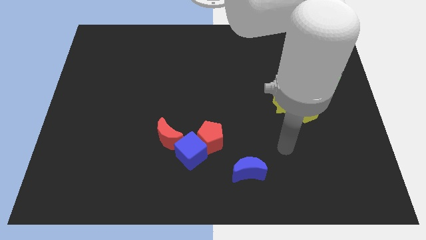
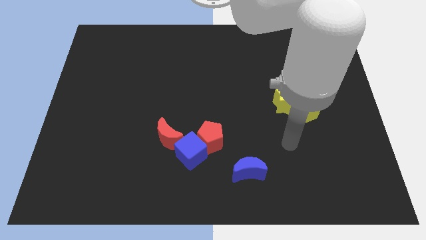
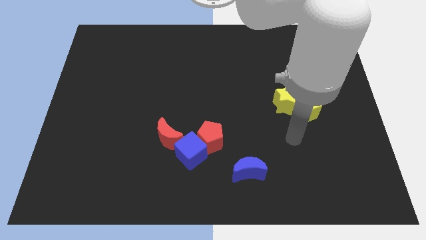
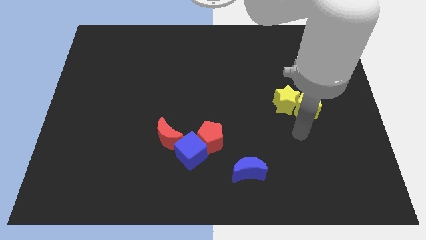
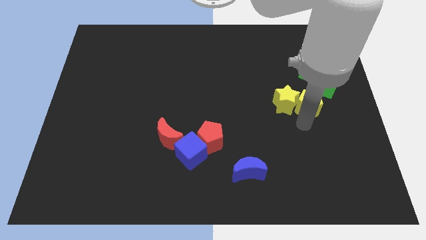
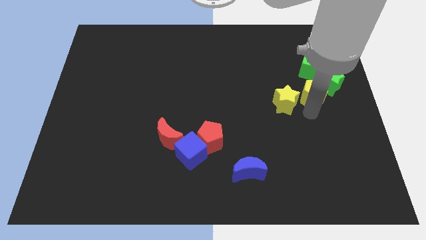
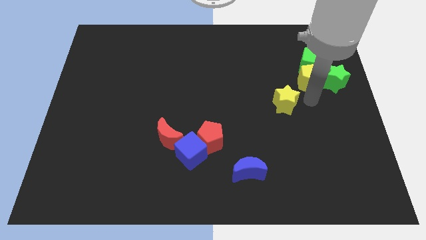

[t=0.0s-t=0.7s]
separate the yellow star from the yellow pentagon

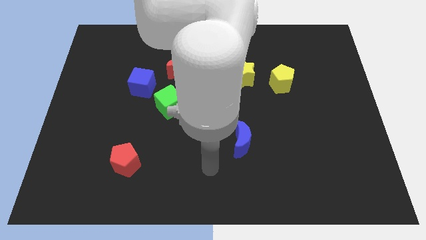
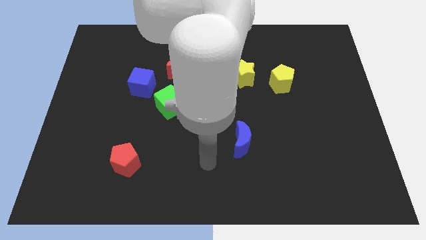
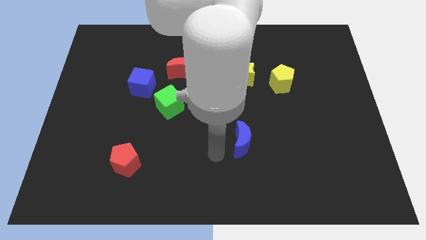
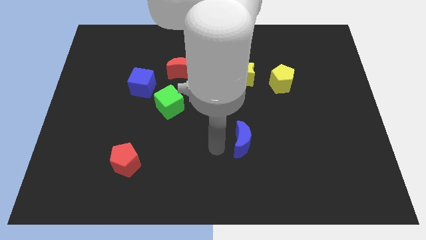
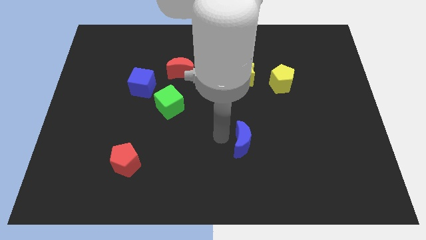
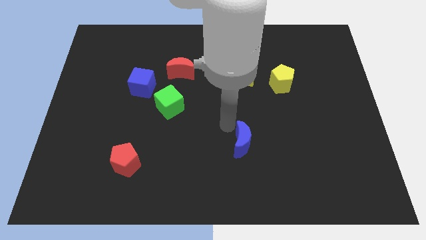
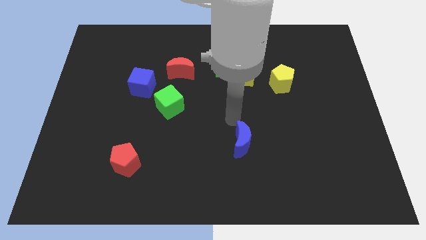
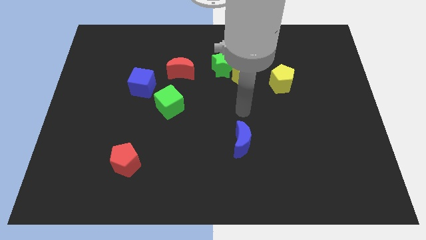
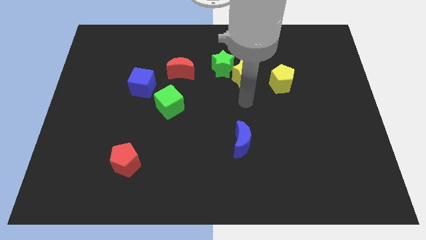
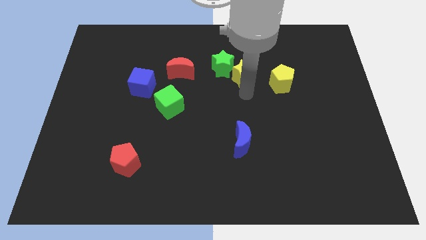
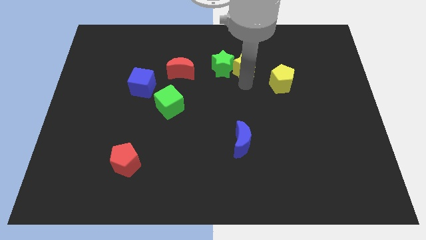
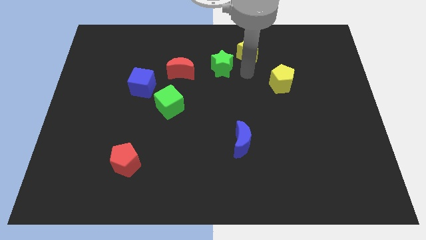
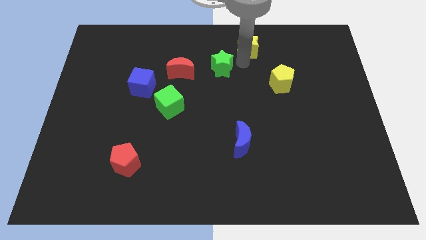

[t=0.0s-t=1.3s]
pull the green star apart from the yellow star

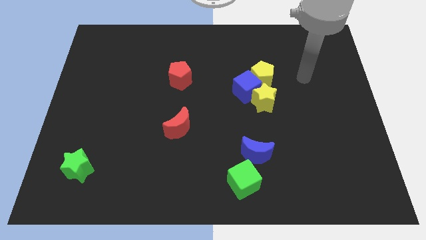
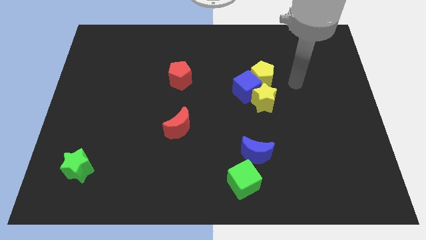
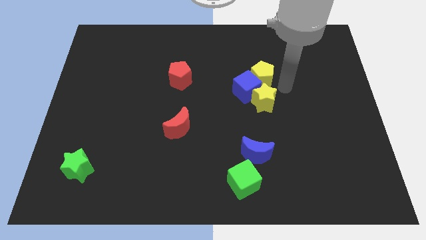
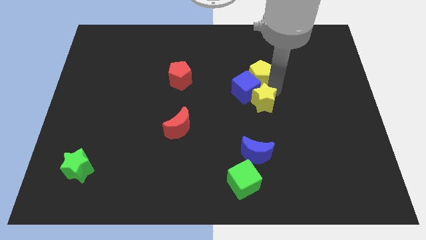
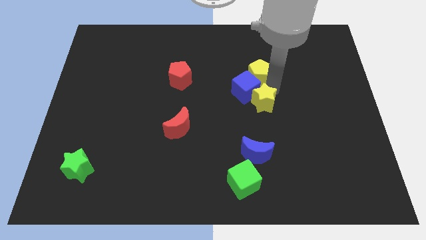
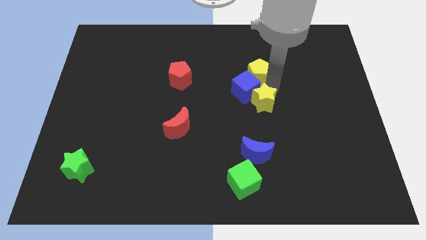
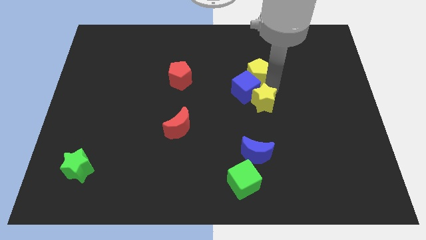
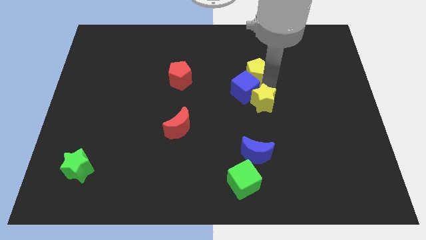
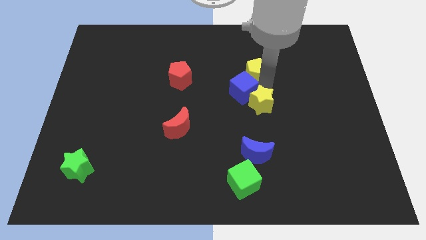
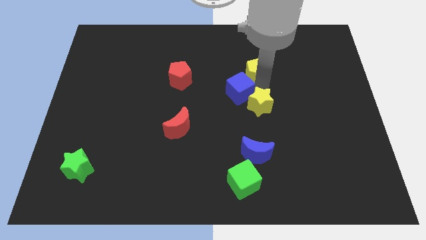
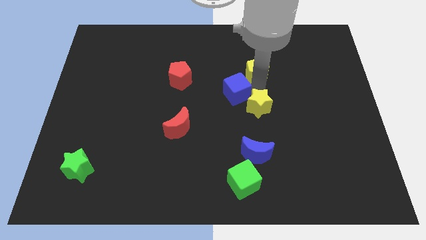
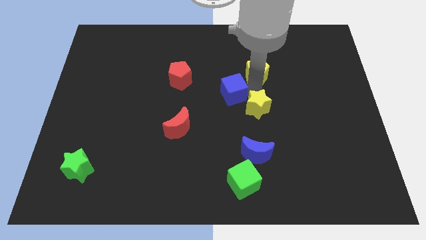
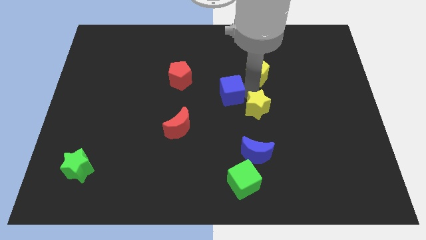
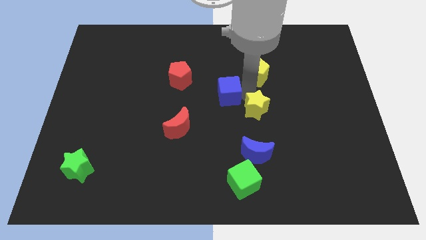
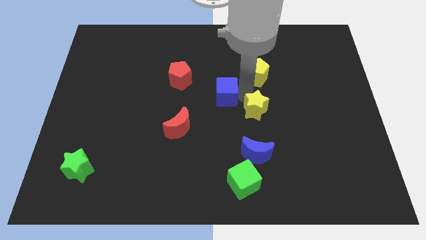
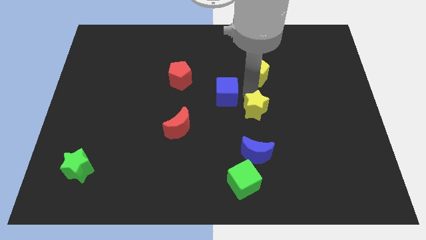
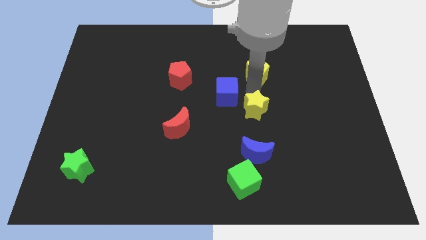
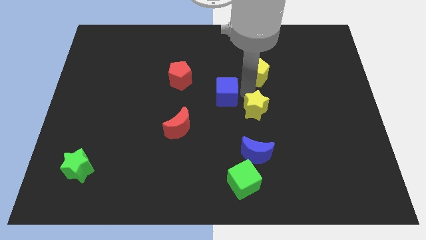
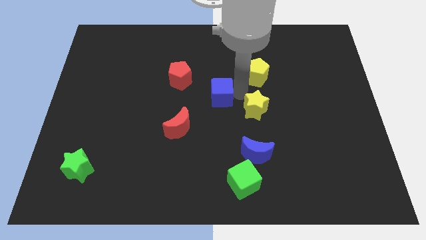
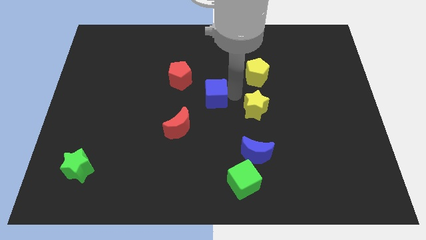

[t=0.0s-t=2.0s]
separate the blue cube from the yellow star and yellow pentagon

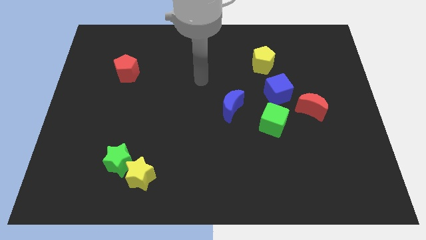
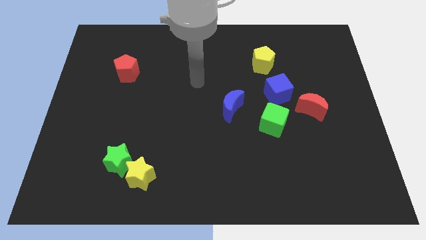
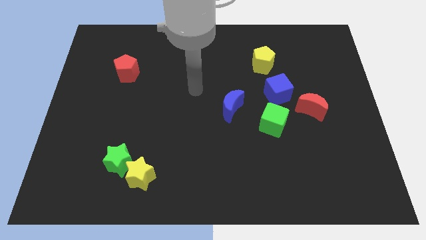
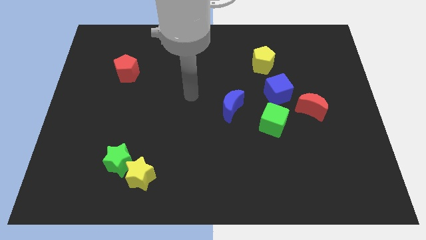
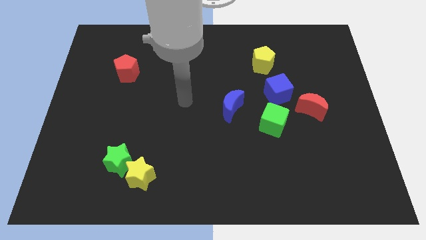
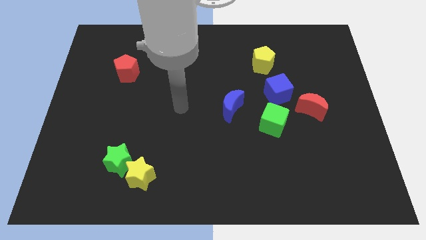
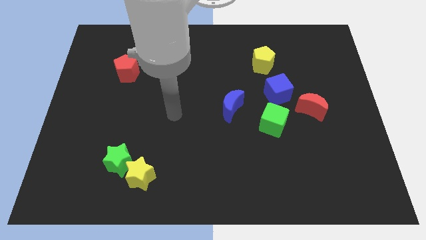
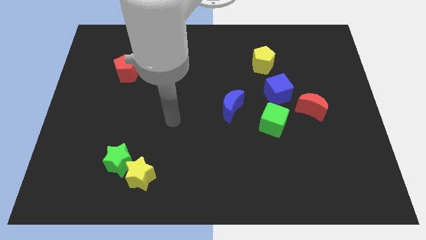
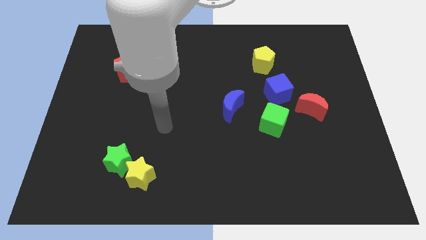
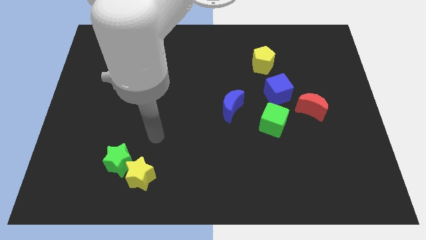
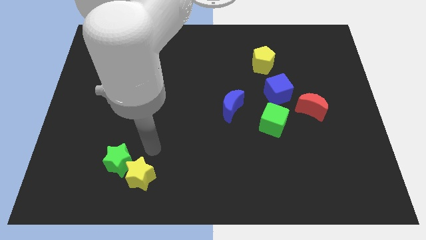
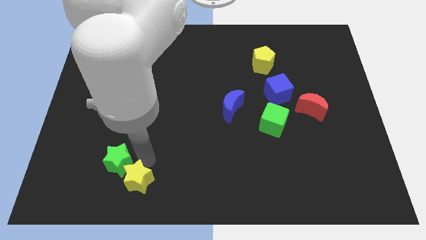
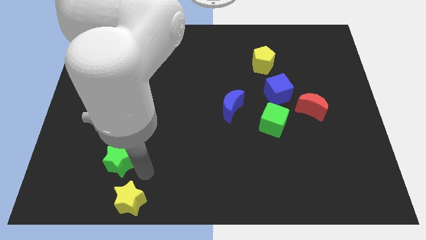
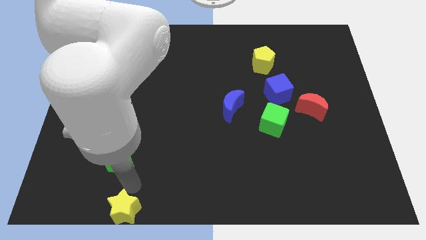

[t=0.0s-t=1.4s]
move the green star away from the yellow star

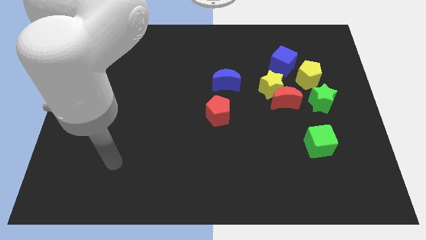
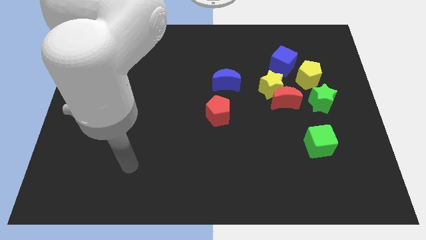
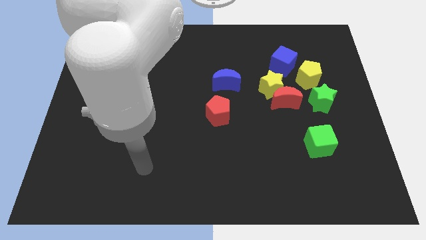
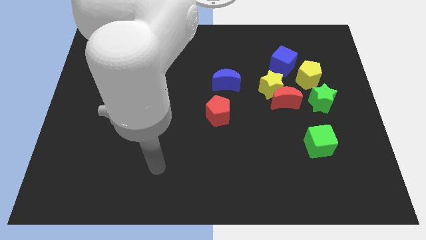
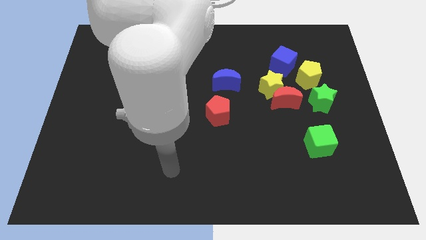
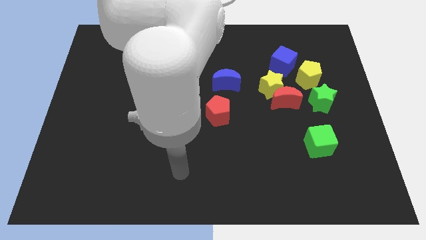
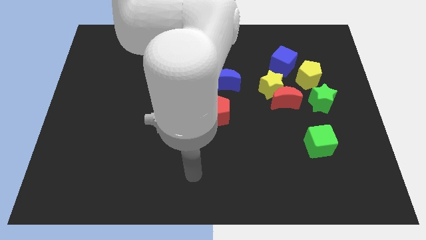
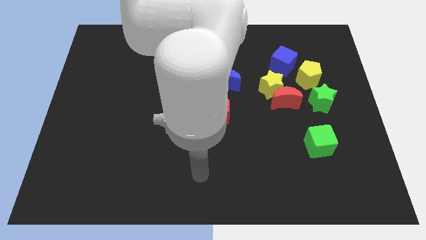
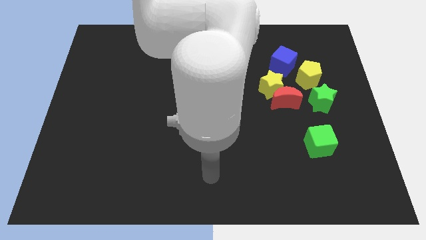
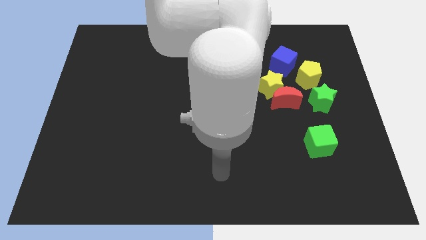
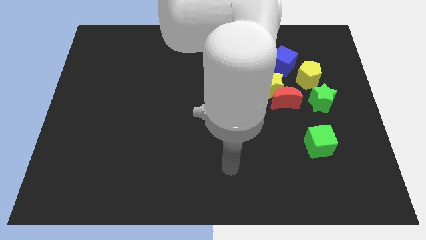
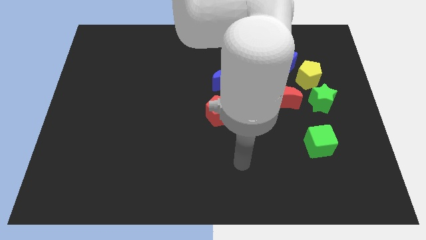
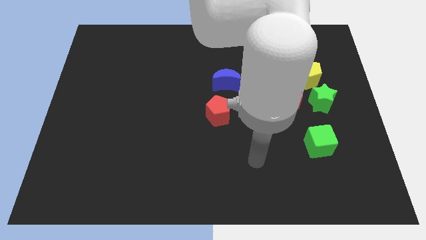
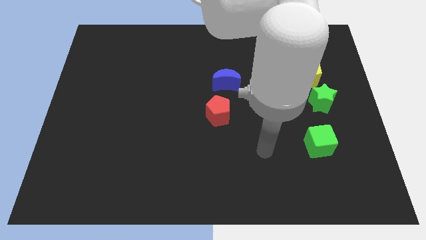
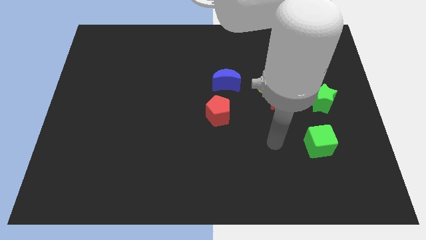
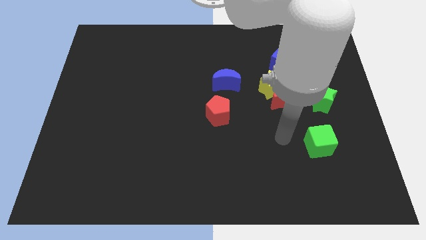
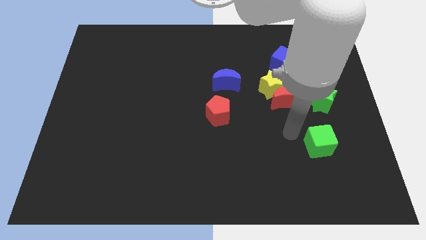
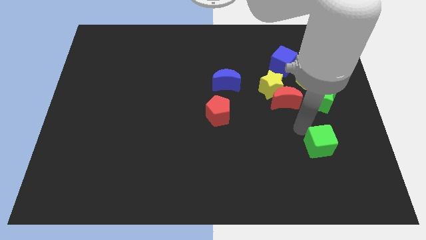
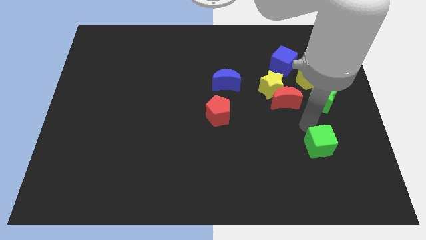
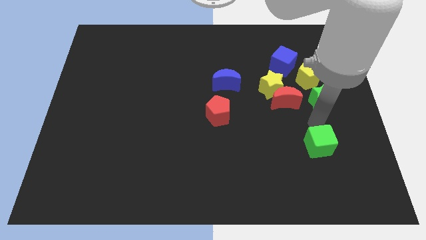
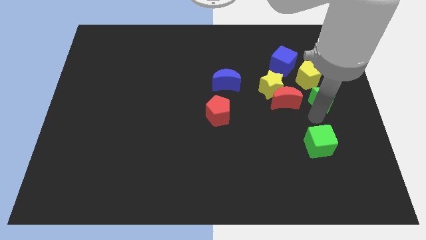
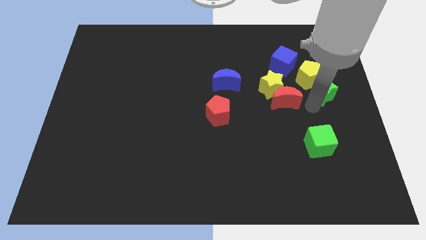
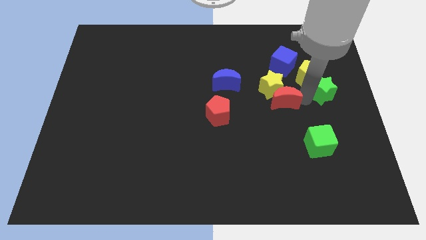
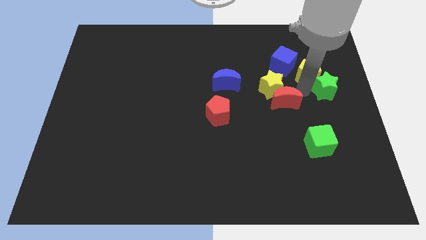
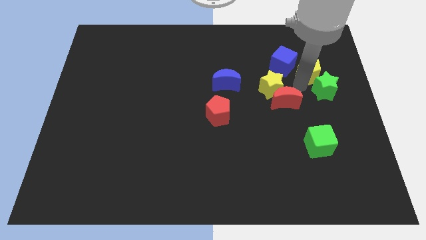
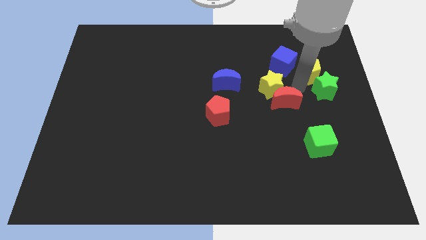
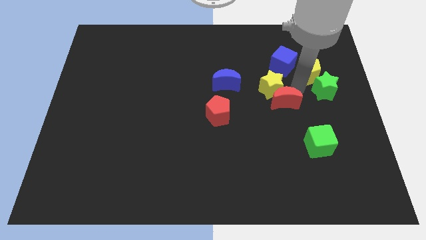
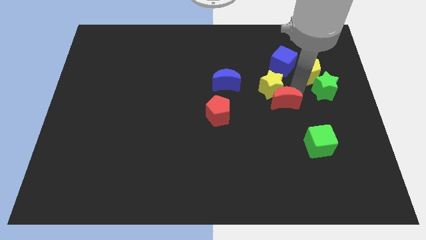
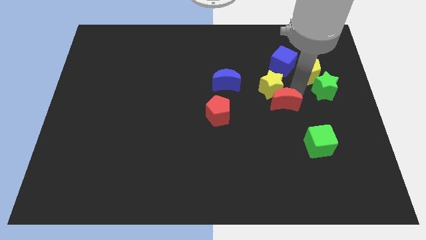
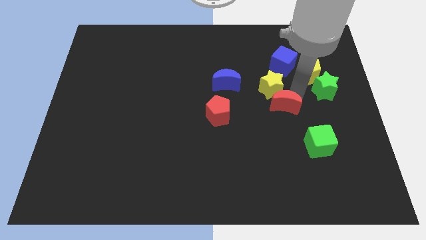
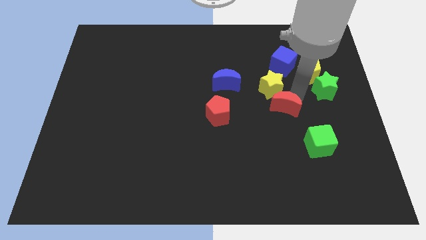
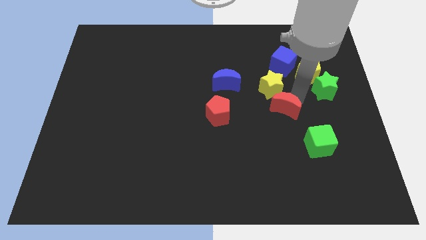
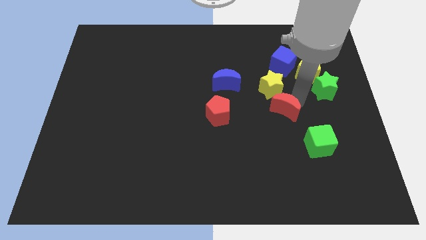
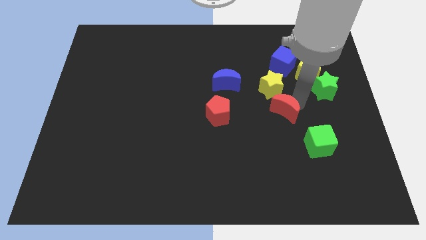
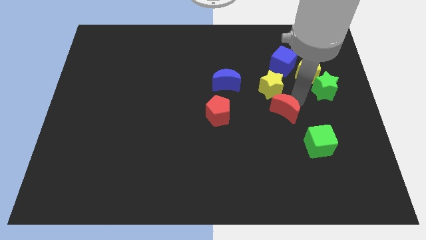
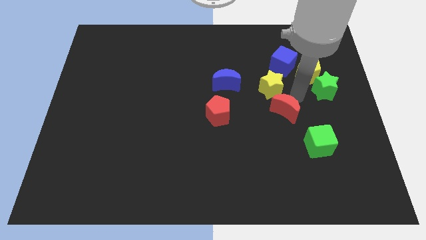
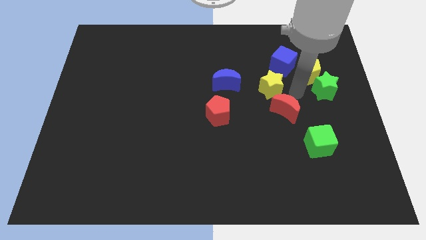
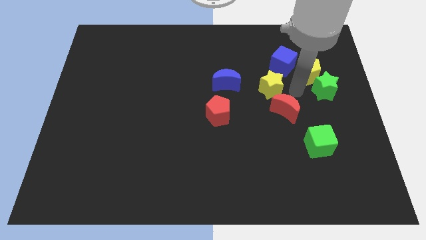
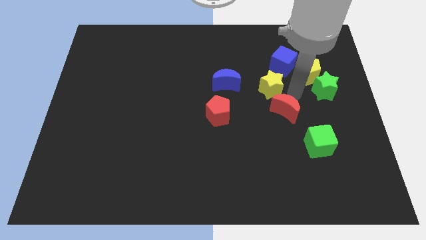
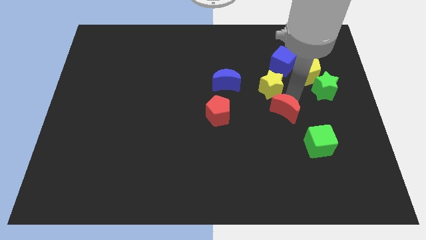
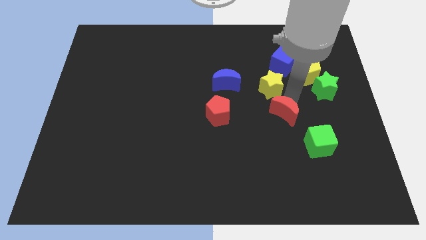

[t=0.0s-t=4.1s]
move the red moon away from the yellow star, green star, and yellow pentagon
